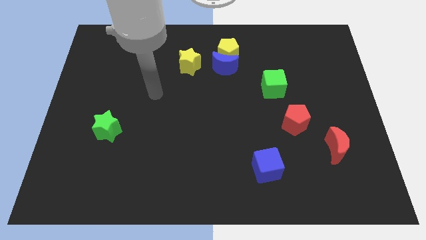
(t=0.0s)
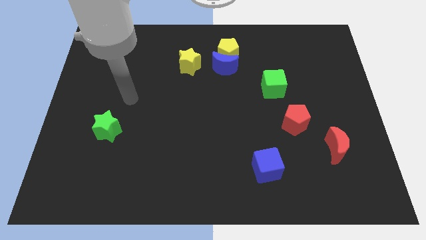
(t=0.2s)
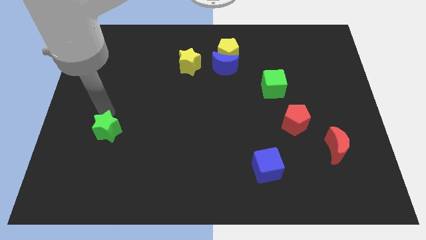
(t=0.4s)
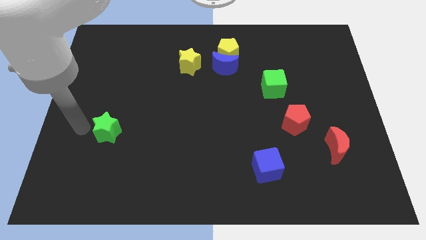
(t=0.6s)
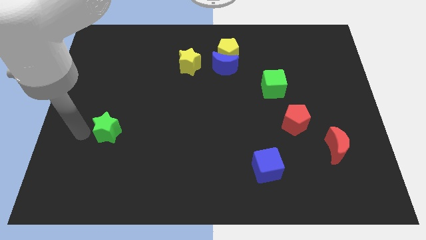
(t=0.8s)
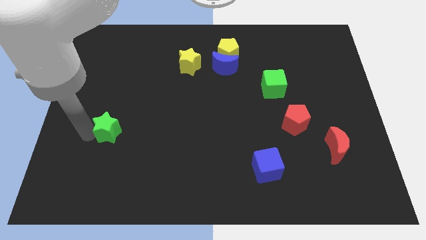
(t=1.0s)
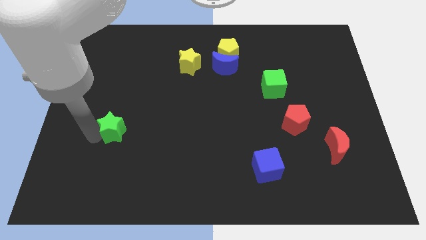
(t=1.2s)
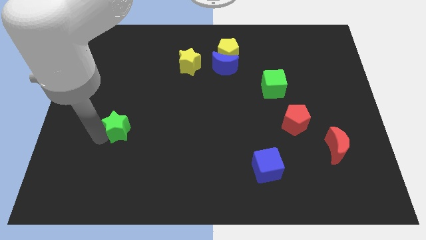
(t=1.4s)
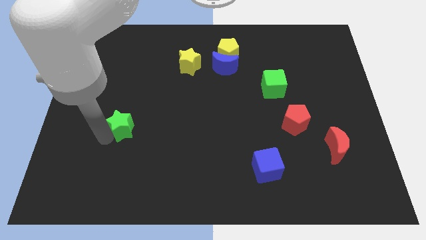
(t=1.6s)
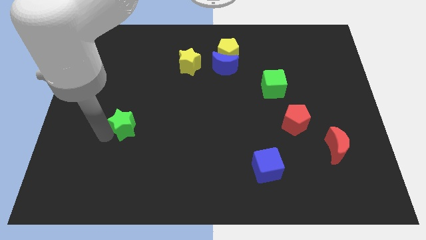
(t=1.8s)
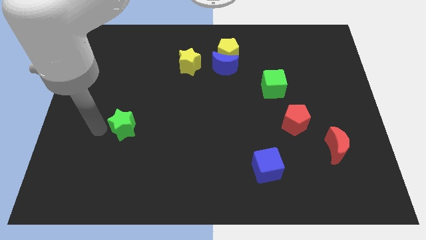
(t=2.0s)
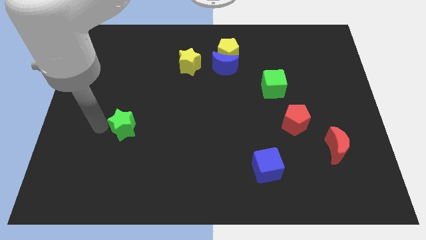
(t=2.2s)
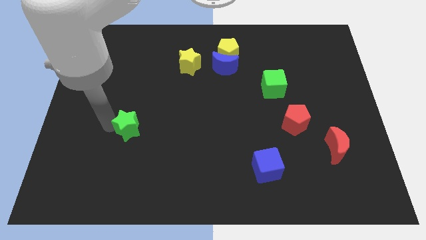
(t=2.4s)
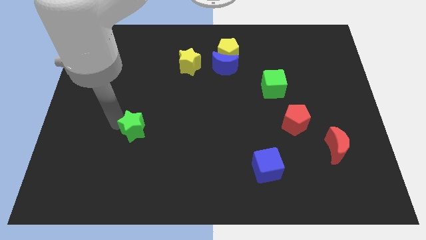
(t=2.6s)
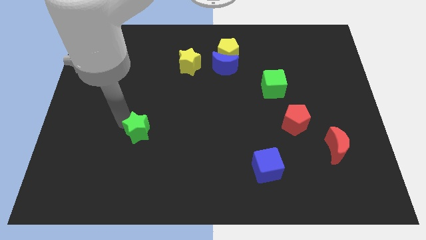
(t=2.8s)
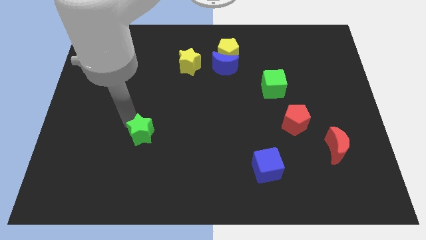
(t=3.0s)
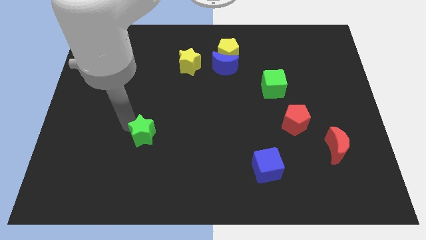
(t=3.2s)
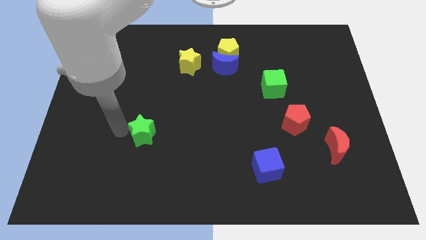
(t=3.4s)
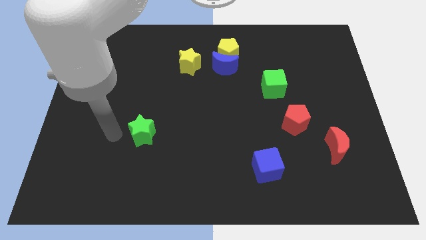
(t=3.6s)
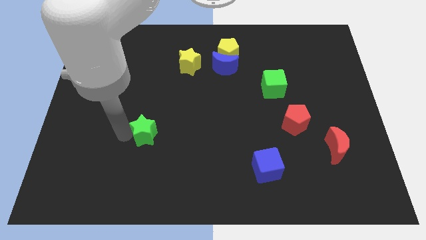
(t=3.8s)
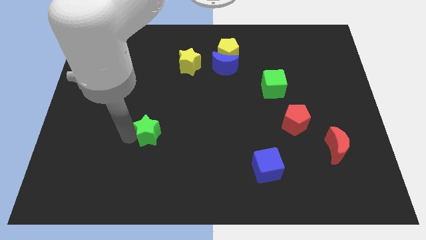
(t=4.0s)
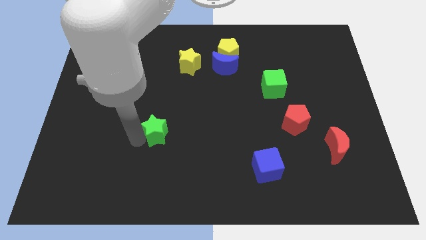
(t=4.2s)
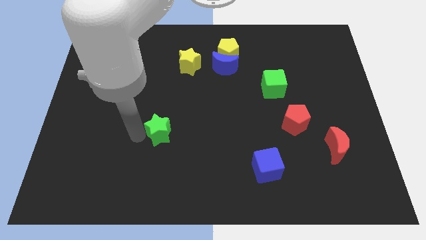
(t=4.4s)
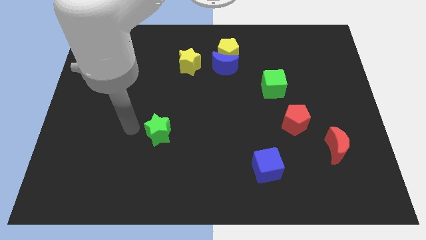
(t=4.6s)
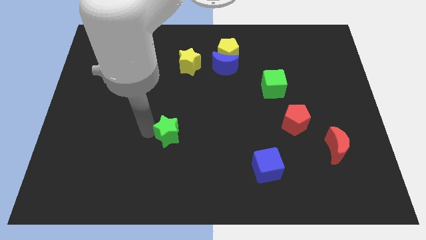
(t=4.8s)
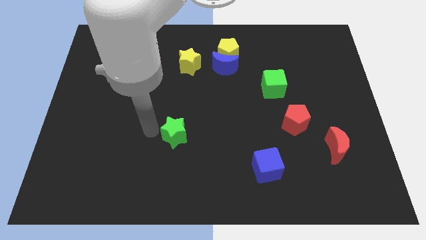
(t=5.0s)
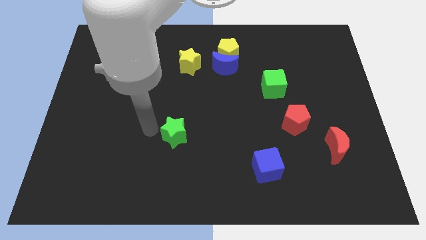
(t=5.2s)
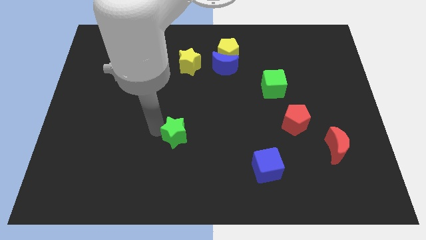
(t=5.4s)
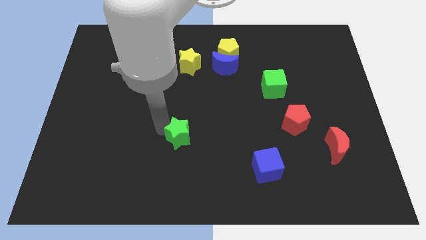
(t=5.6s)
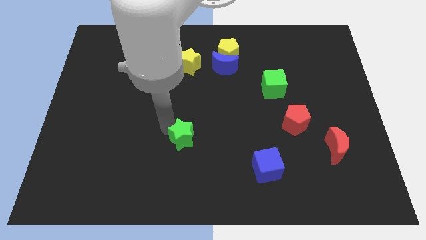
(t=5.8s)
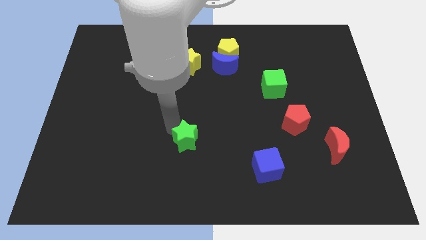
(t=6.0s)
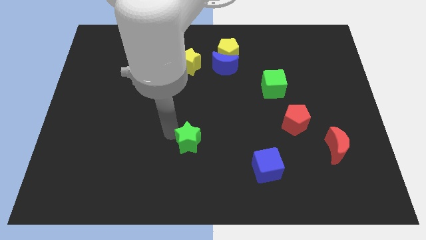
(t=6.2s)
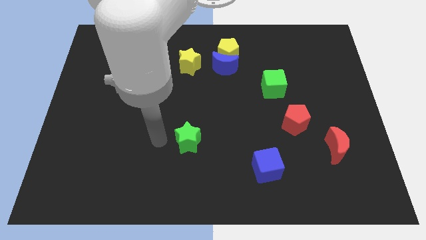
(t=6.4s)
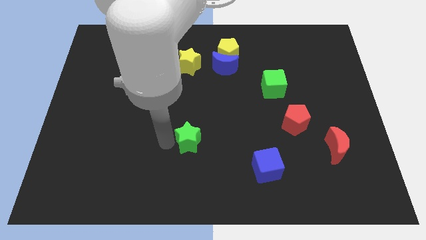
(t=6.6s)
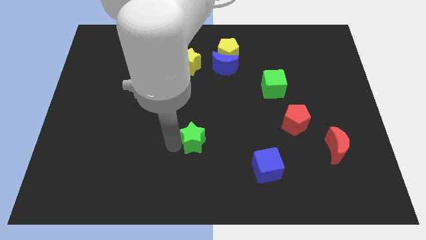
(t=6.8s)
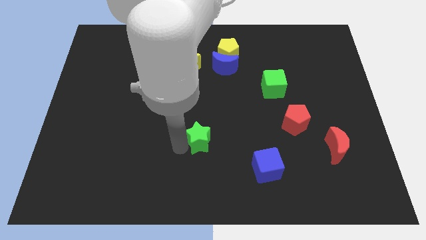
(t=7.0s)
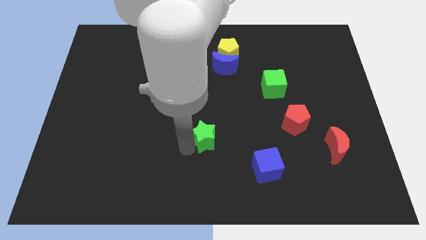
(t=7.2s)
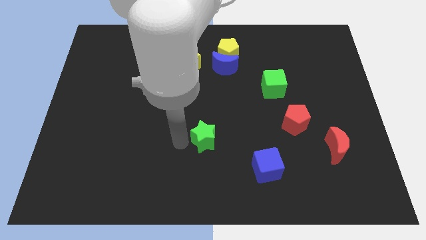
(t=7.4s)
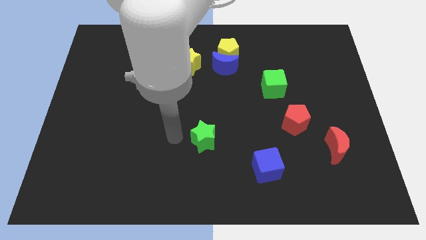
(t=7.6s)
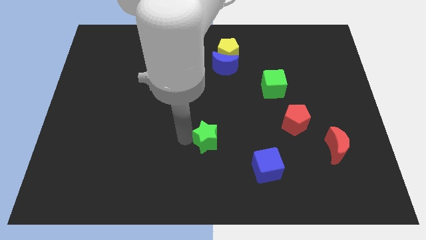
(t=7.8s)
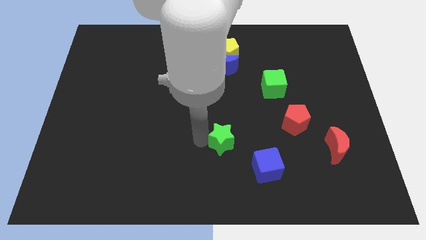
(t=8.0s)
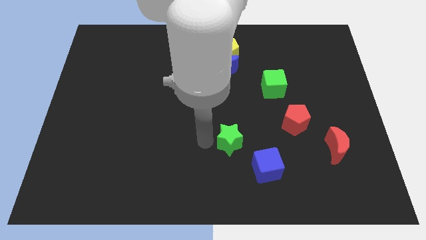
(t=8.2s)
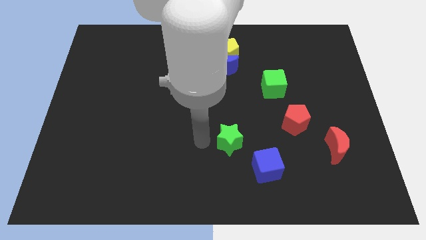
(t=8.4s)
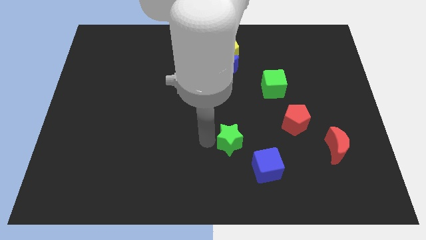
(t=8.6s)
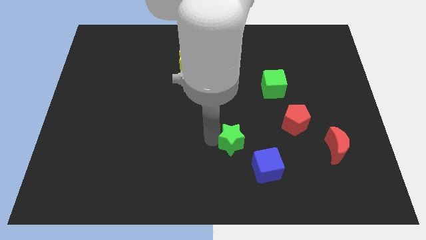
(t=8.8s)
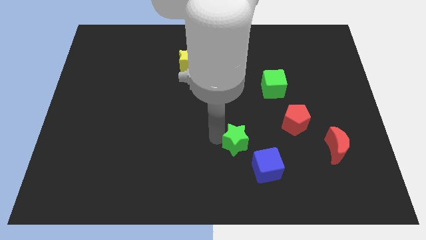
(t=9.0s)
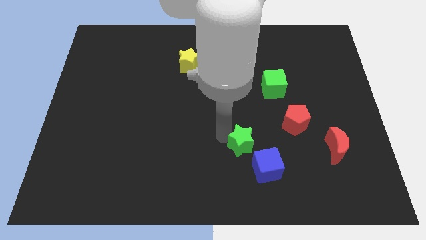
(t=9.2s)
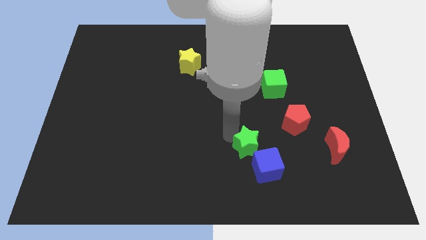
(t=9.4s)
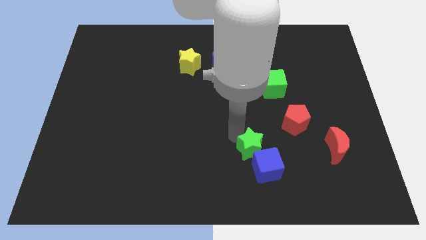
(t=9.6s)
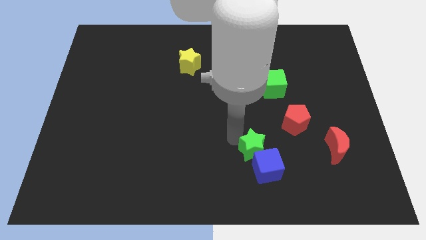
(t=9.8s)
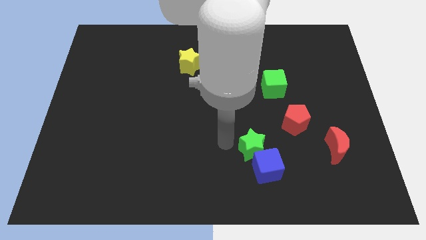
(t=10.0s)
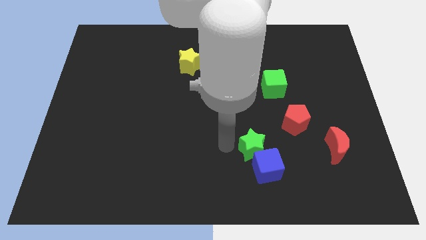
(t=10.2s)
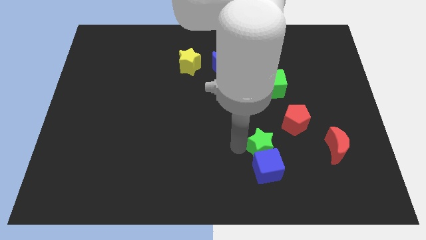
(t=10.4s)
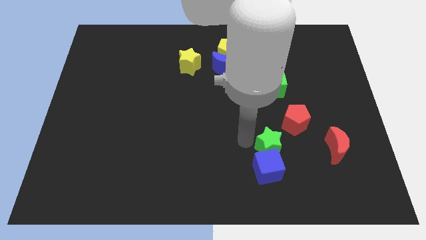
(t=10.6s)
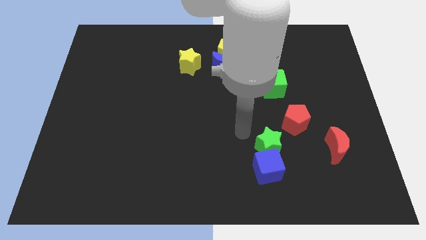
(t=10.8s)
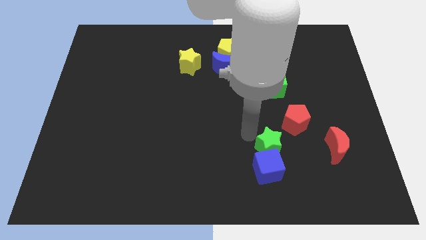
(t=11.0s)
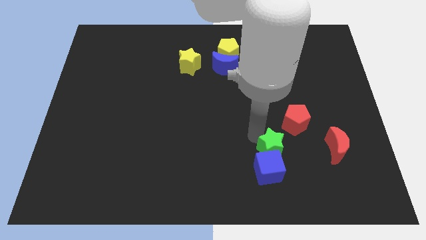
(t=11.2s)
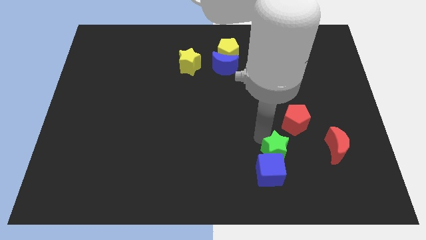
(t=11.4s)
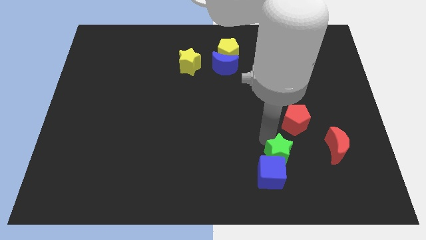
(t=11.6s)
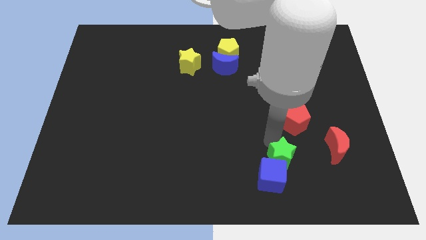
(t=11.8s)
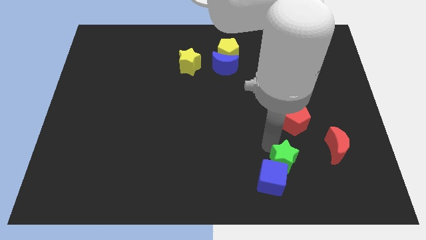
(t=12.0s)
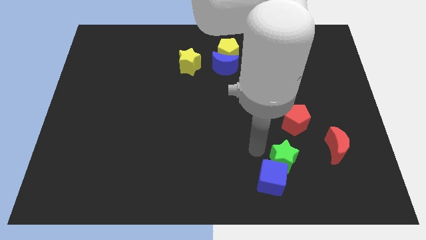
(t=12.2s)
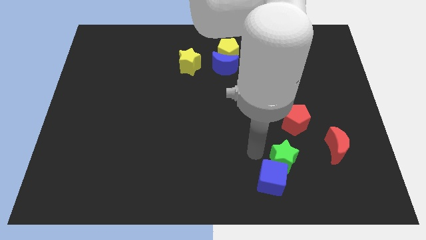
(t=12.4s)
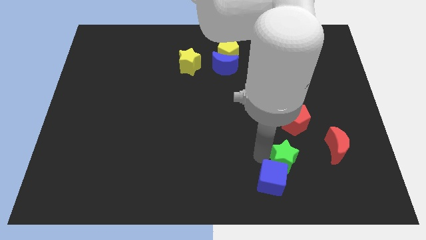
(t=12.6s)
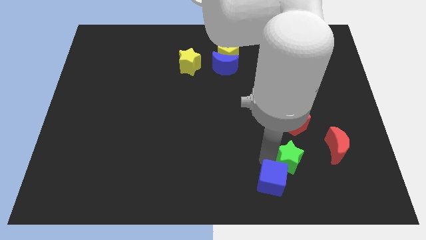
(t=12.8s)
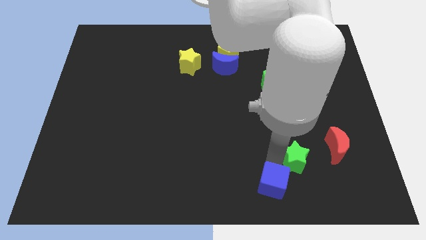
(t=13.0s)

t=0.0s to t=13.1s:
push the green star diagonally down and to the left of the red moon

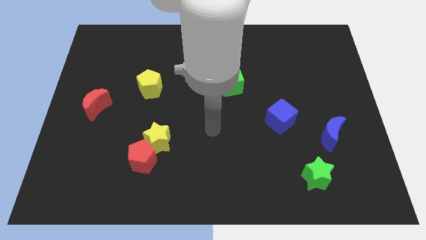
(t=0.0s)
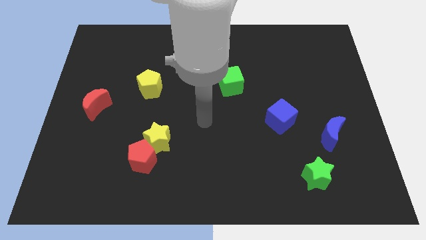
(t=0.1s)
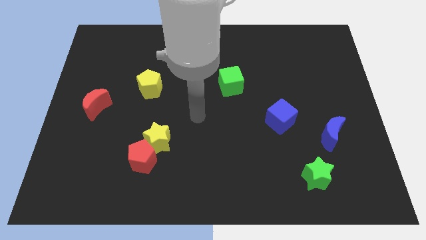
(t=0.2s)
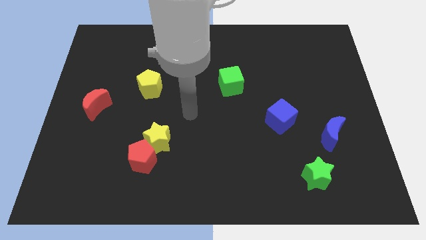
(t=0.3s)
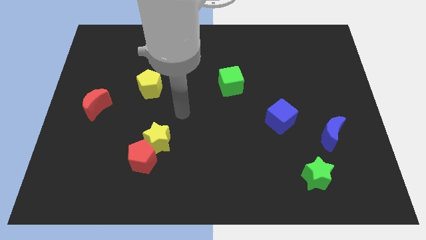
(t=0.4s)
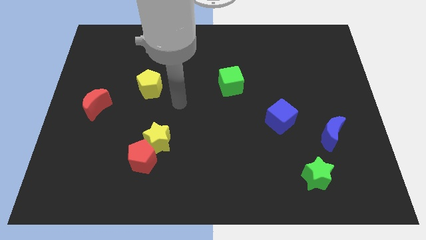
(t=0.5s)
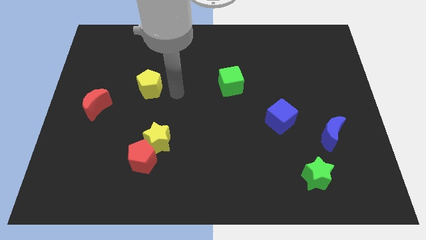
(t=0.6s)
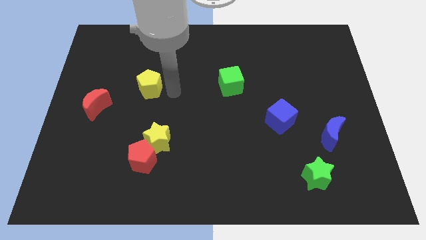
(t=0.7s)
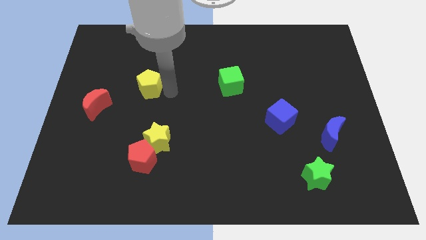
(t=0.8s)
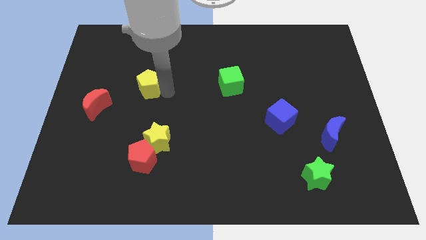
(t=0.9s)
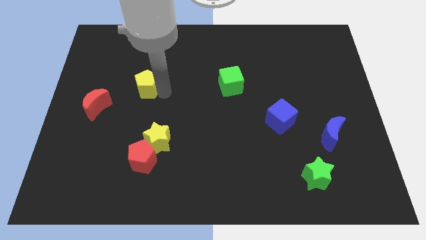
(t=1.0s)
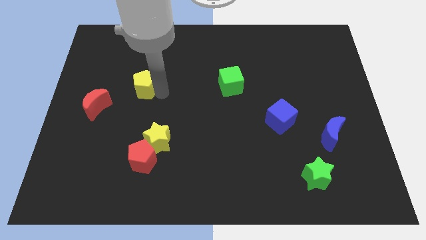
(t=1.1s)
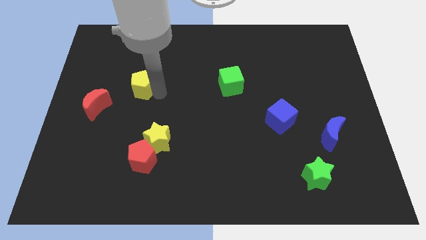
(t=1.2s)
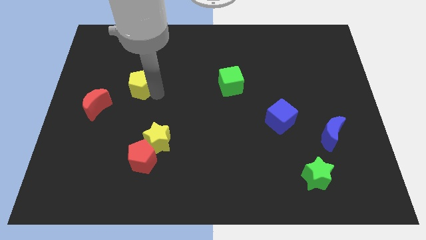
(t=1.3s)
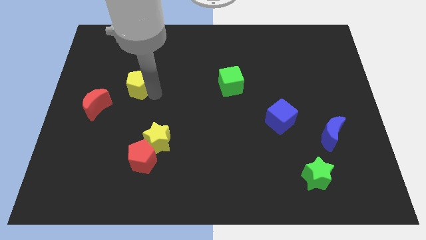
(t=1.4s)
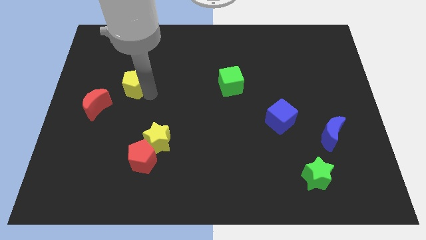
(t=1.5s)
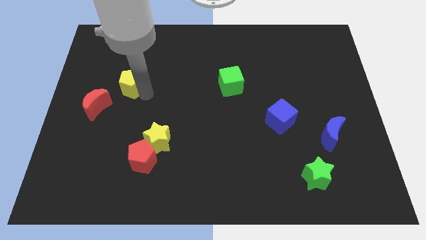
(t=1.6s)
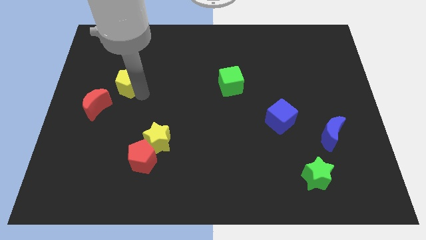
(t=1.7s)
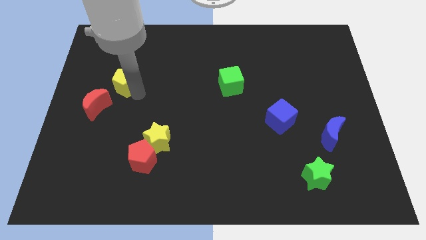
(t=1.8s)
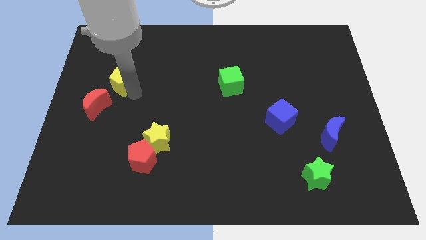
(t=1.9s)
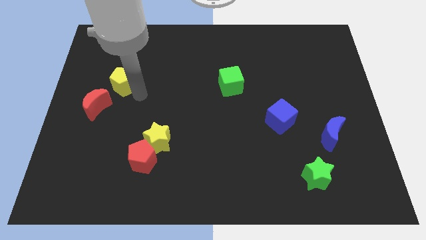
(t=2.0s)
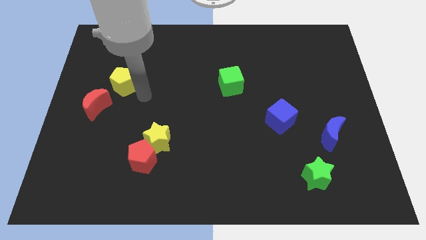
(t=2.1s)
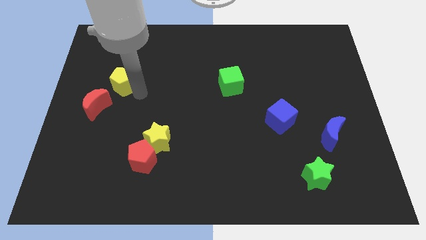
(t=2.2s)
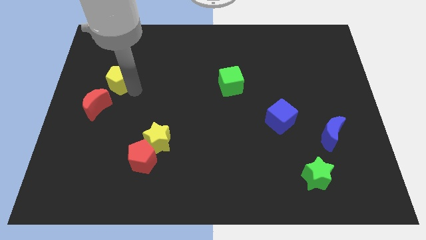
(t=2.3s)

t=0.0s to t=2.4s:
slide the yellow pentagon to the top side of the red moon
